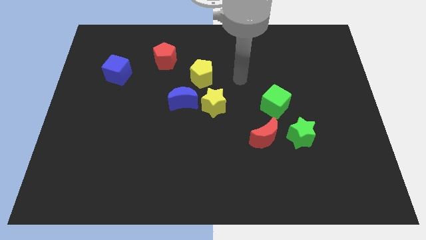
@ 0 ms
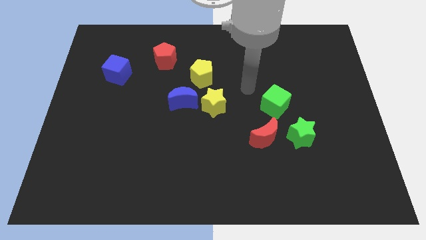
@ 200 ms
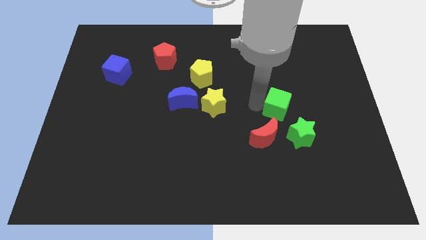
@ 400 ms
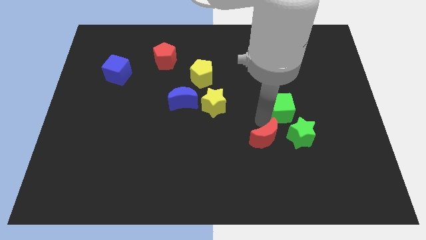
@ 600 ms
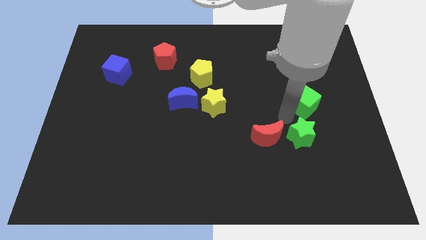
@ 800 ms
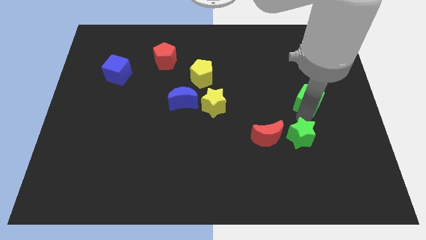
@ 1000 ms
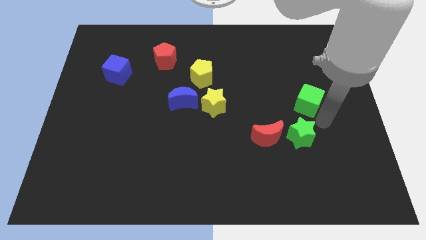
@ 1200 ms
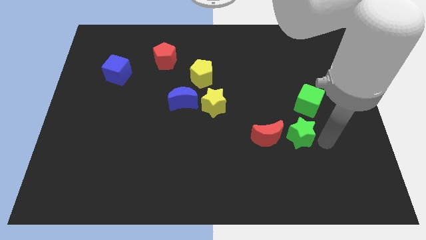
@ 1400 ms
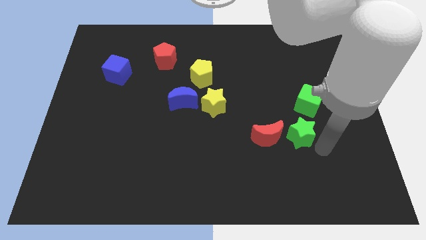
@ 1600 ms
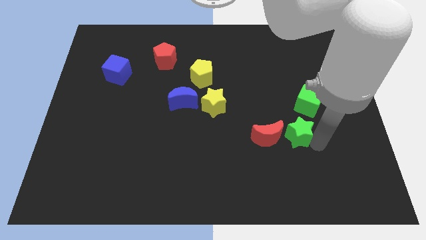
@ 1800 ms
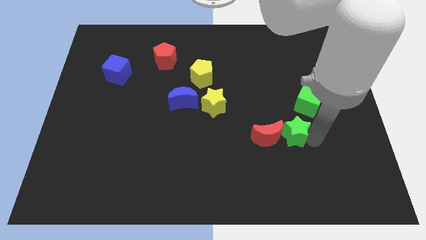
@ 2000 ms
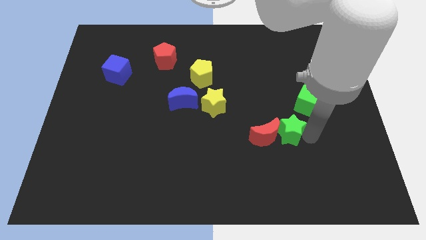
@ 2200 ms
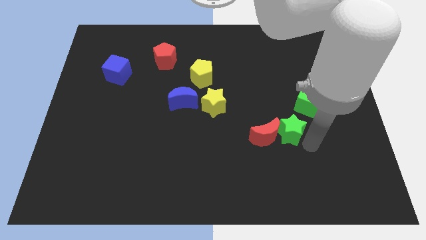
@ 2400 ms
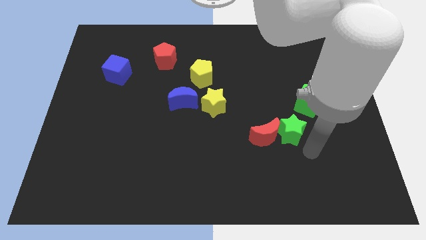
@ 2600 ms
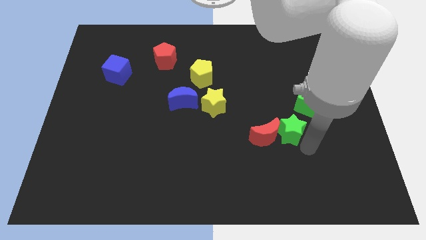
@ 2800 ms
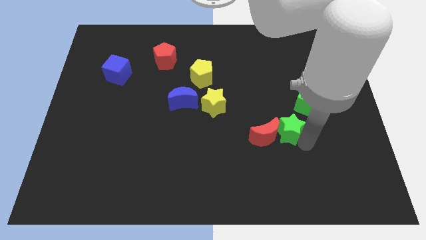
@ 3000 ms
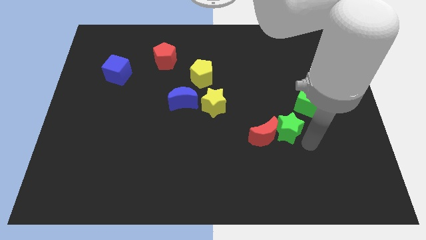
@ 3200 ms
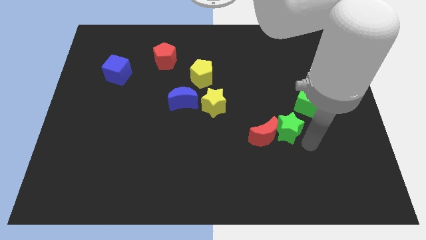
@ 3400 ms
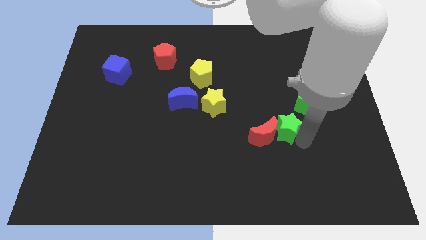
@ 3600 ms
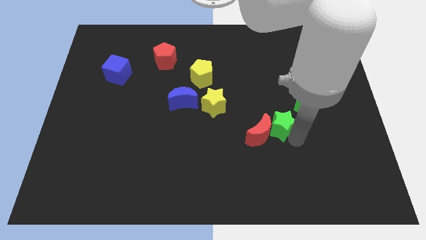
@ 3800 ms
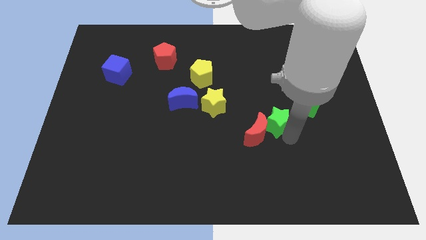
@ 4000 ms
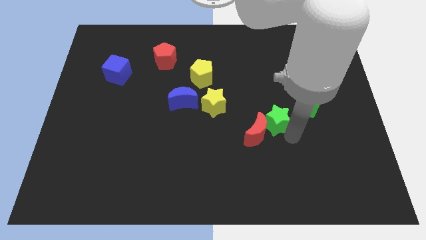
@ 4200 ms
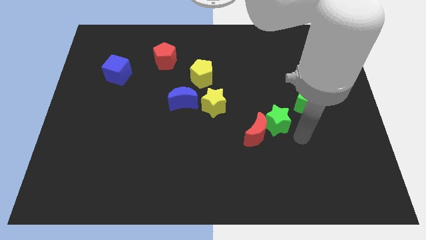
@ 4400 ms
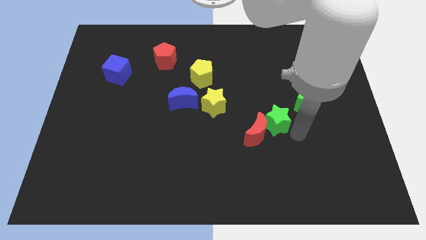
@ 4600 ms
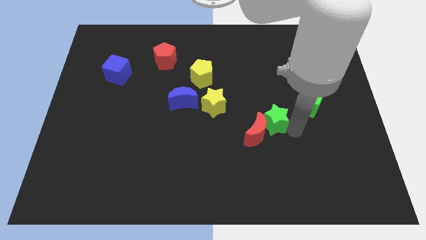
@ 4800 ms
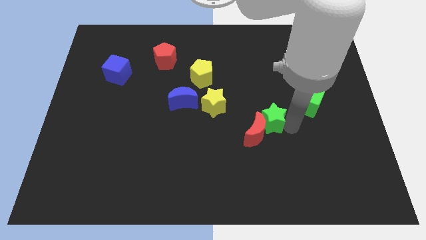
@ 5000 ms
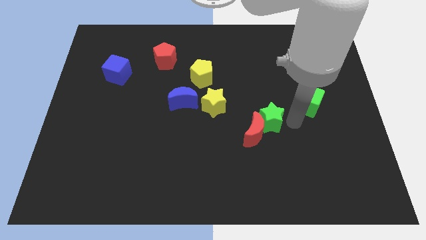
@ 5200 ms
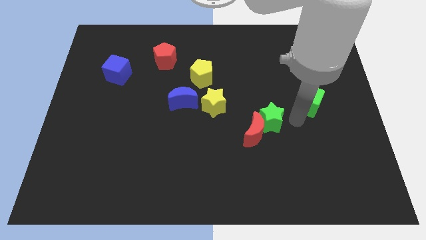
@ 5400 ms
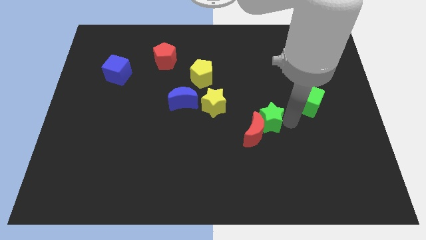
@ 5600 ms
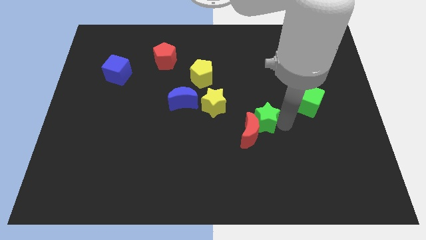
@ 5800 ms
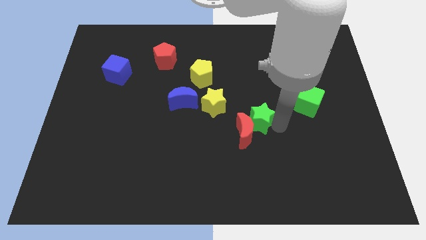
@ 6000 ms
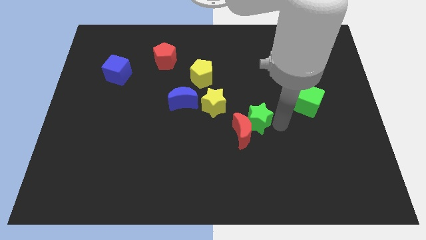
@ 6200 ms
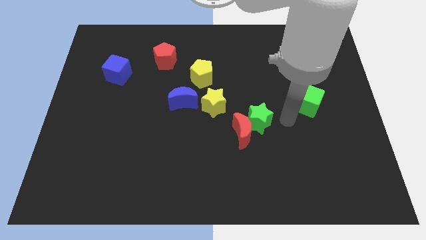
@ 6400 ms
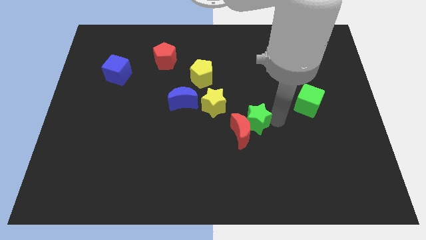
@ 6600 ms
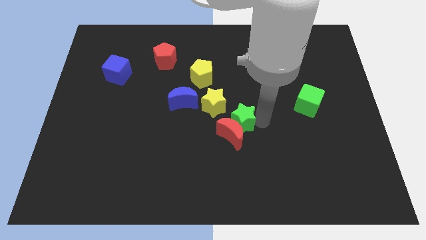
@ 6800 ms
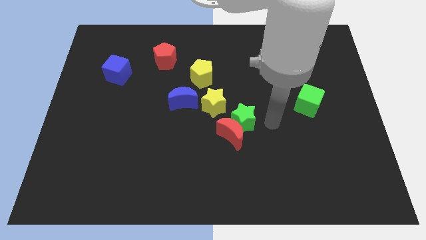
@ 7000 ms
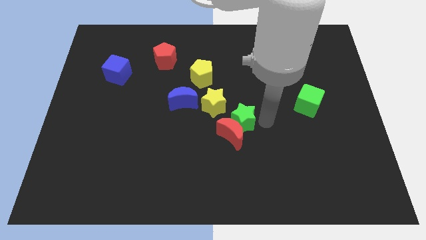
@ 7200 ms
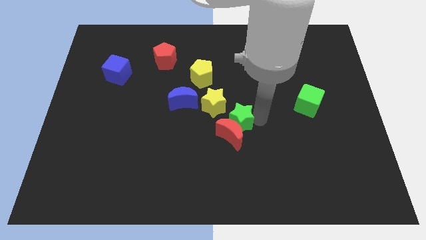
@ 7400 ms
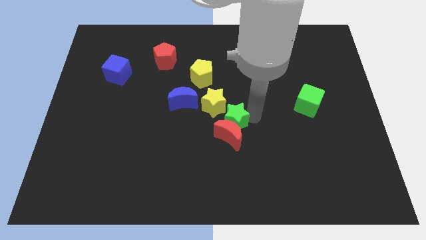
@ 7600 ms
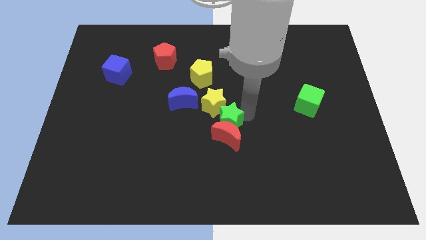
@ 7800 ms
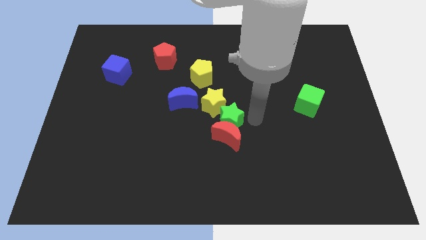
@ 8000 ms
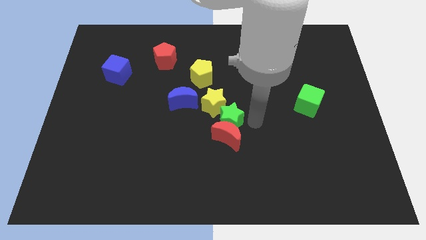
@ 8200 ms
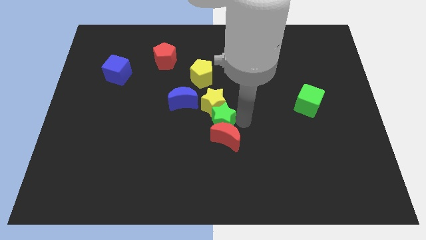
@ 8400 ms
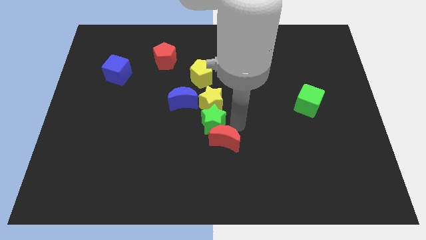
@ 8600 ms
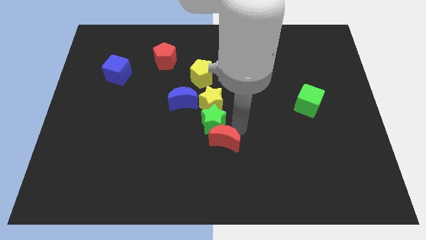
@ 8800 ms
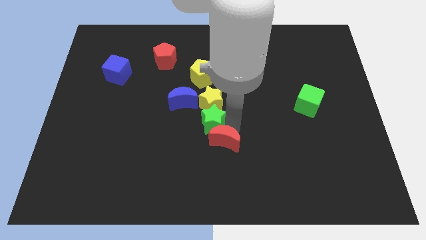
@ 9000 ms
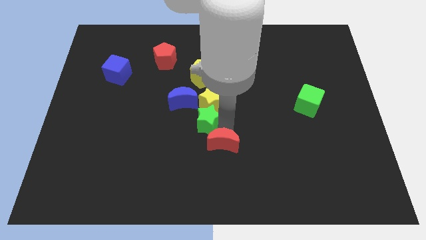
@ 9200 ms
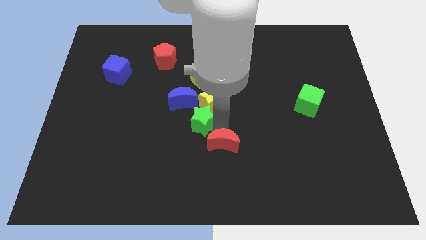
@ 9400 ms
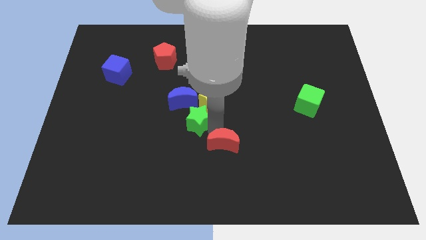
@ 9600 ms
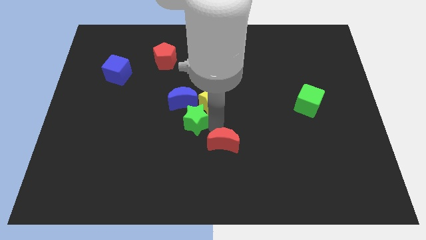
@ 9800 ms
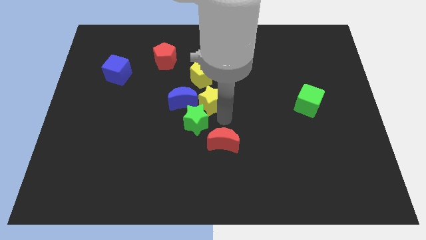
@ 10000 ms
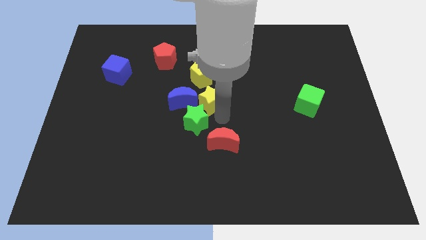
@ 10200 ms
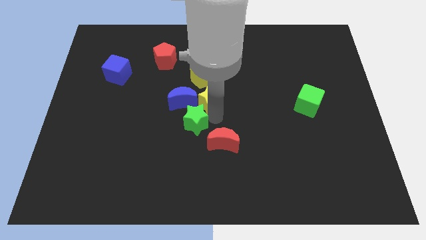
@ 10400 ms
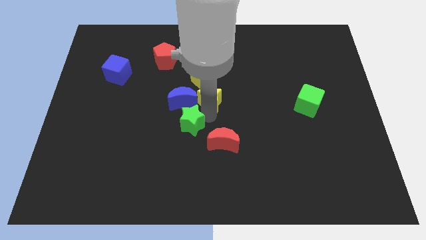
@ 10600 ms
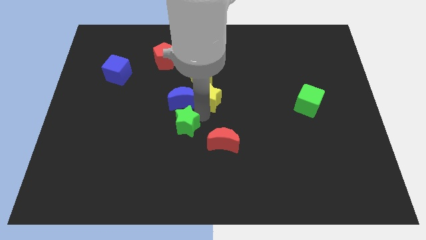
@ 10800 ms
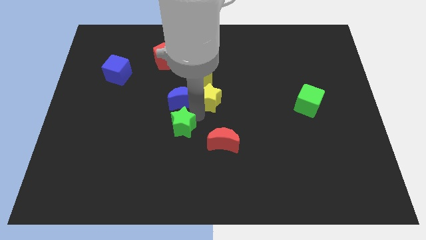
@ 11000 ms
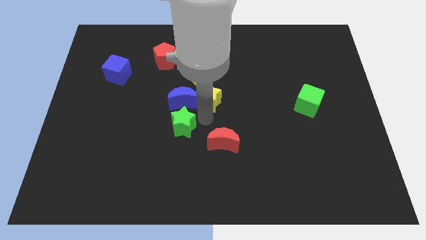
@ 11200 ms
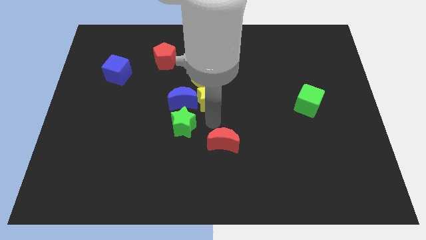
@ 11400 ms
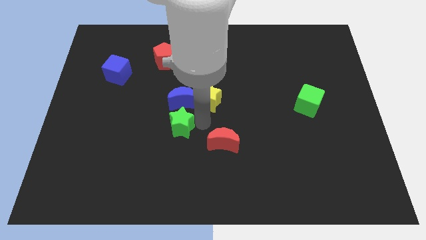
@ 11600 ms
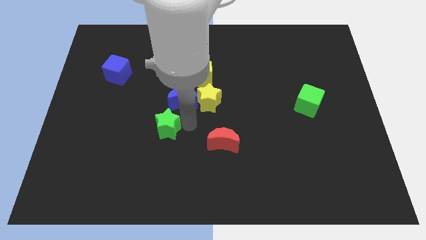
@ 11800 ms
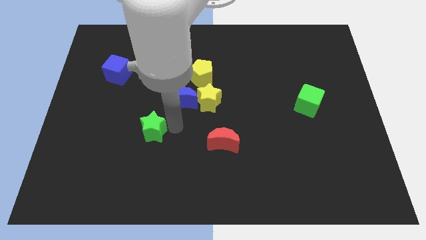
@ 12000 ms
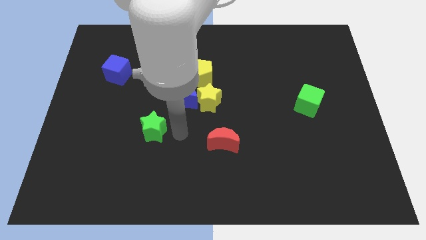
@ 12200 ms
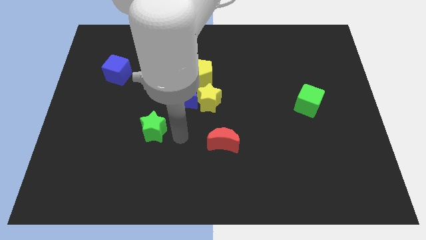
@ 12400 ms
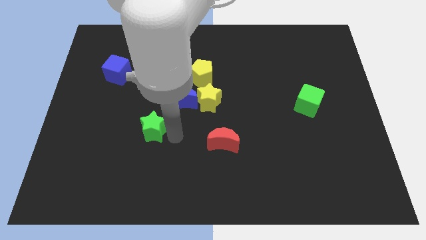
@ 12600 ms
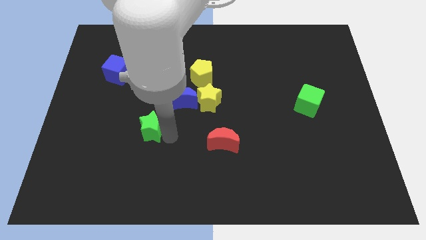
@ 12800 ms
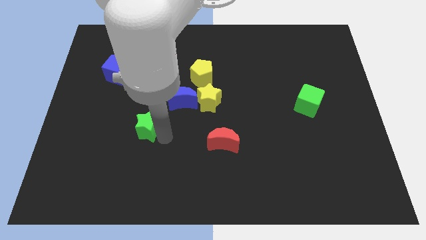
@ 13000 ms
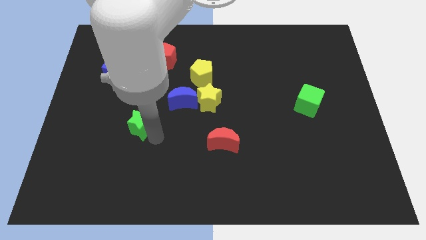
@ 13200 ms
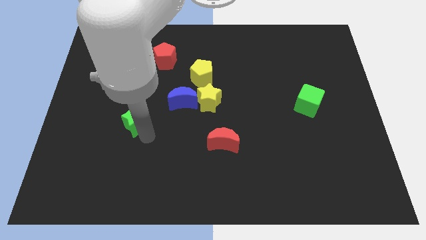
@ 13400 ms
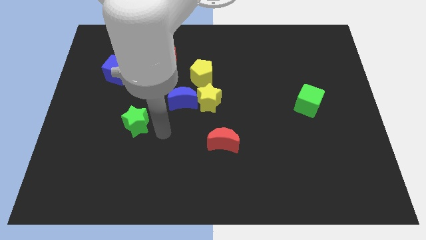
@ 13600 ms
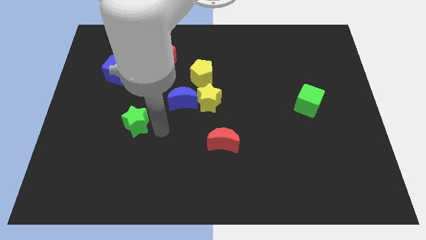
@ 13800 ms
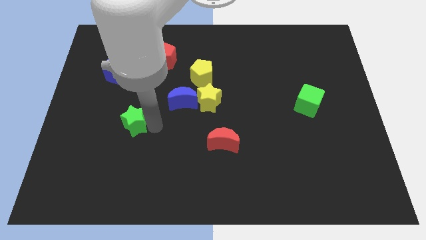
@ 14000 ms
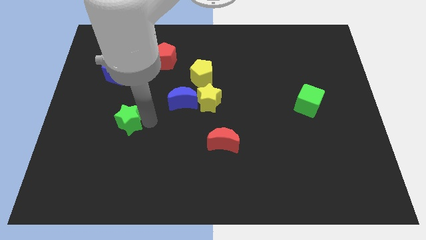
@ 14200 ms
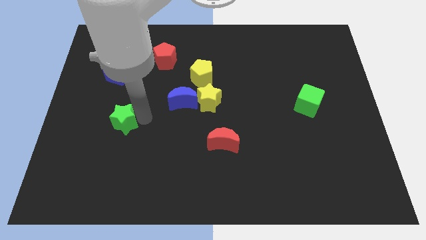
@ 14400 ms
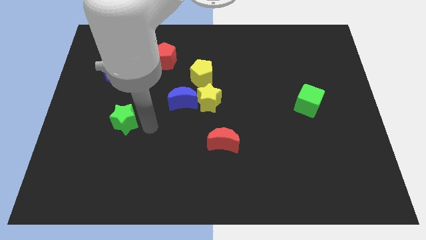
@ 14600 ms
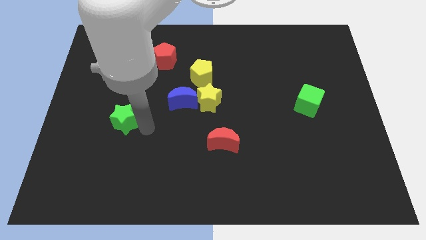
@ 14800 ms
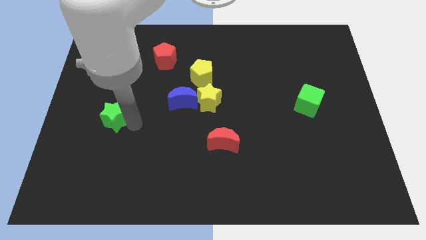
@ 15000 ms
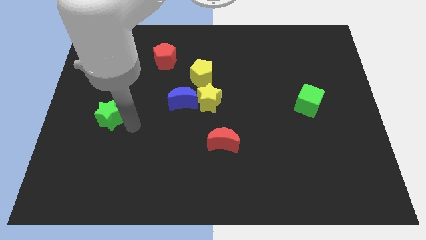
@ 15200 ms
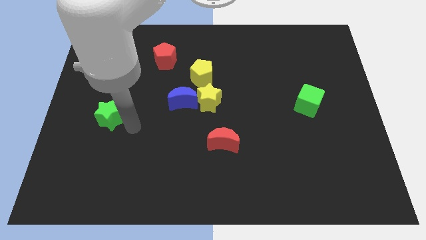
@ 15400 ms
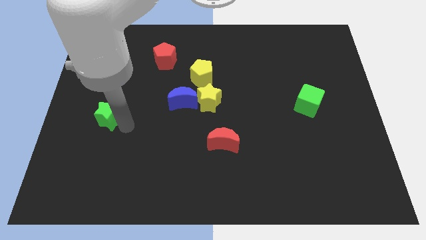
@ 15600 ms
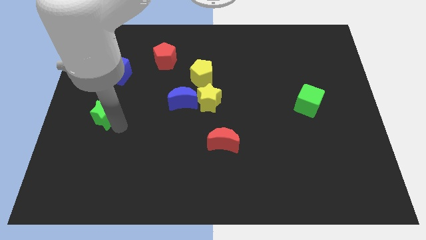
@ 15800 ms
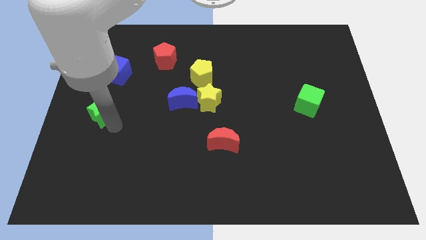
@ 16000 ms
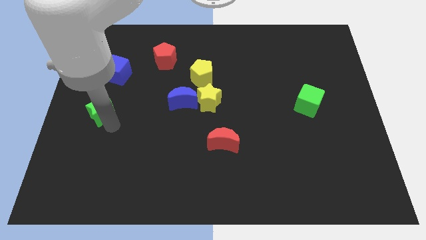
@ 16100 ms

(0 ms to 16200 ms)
slide the green star to the left side
